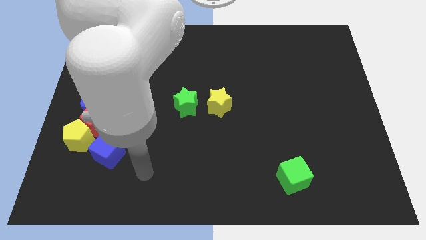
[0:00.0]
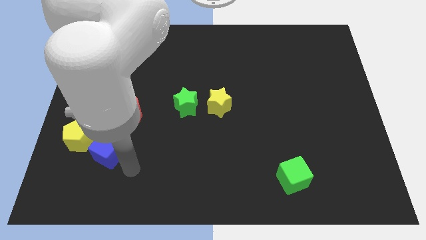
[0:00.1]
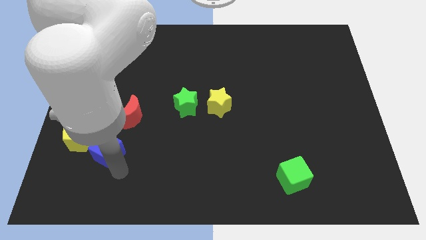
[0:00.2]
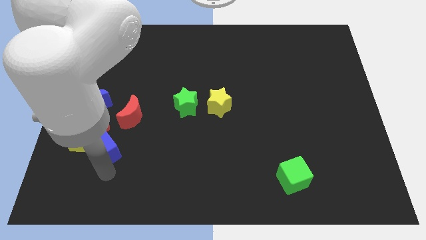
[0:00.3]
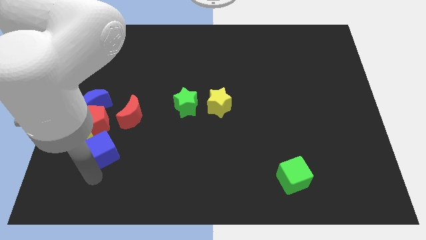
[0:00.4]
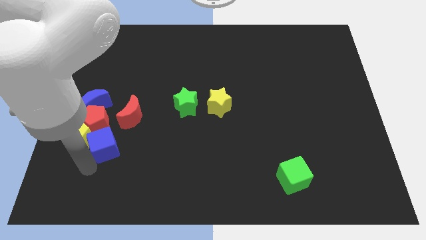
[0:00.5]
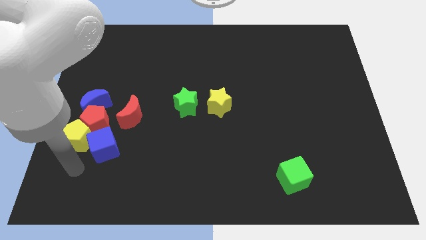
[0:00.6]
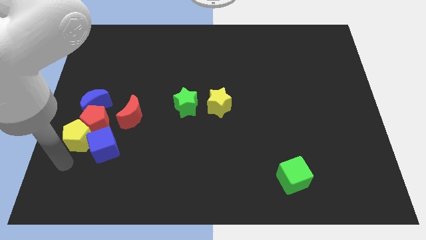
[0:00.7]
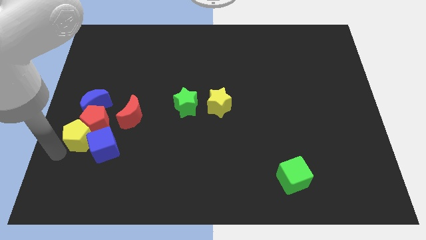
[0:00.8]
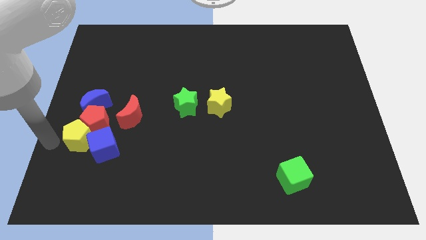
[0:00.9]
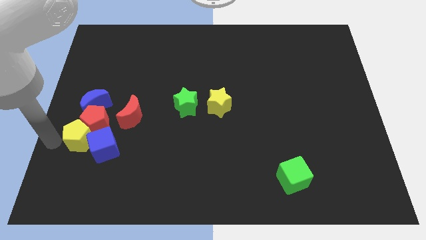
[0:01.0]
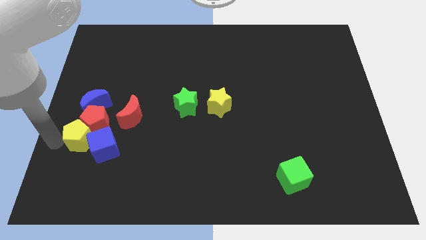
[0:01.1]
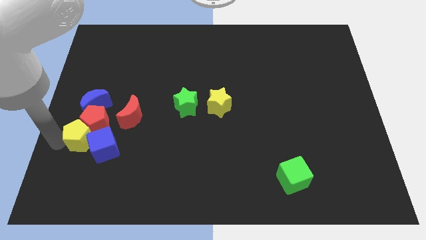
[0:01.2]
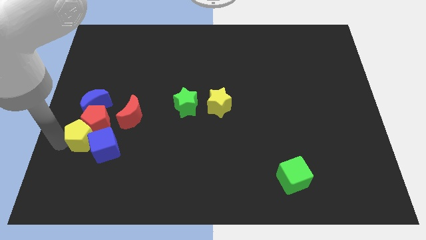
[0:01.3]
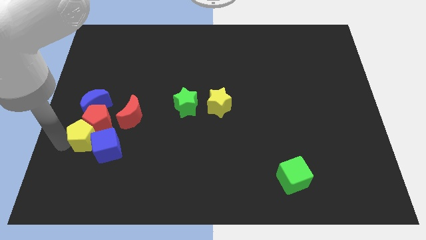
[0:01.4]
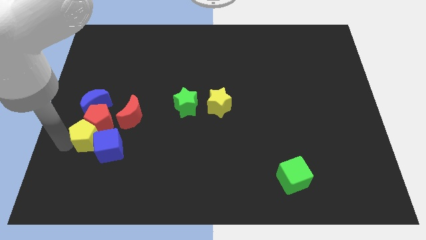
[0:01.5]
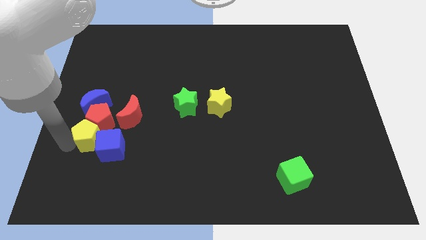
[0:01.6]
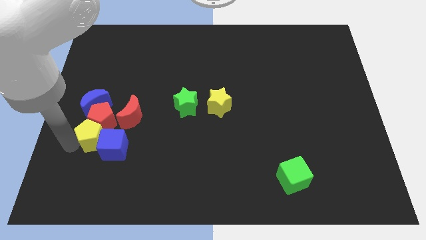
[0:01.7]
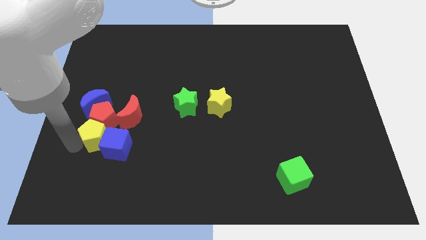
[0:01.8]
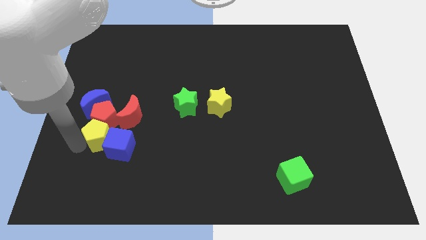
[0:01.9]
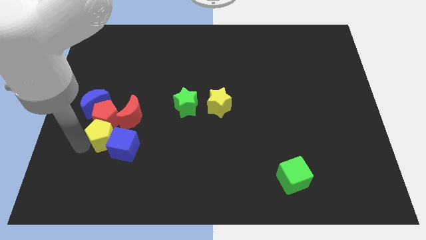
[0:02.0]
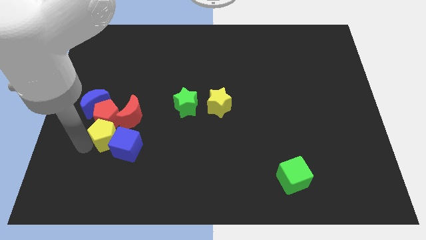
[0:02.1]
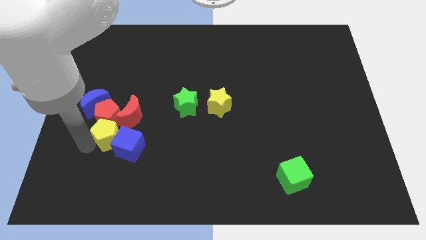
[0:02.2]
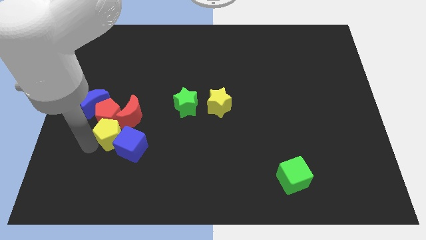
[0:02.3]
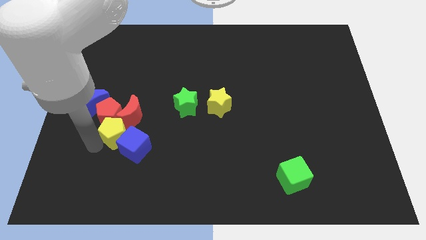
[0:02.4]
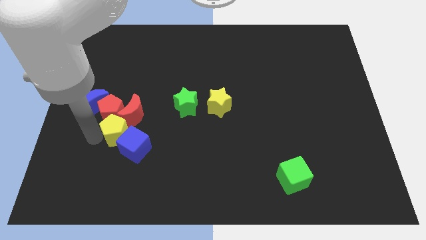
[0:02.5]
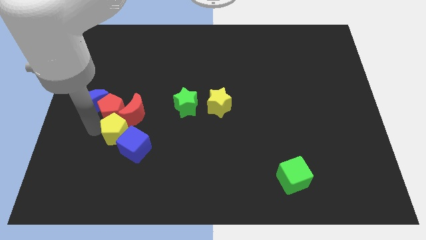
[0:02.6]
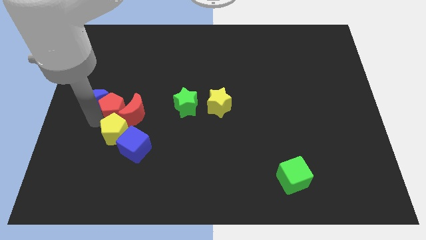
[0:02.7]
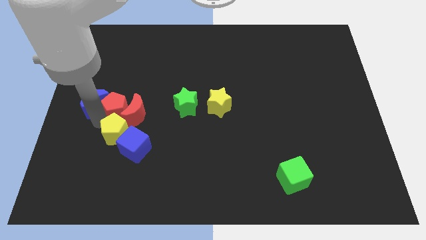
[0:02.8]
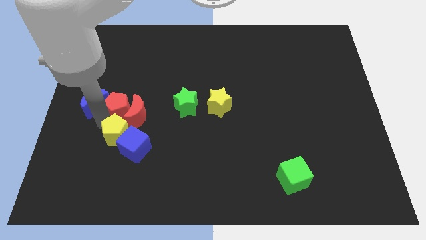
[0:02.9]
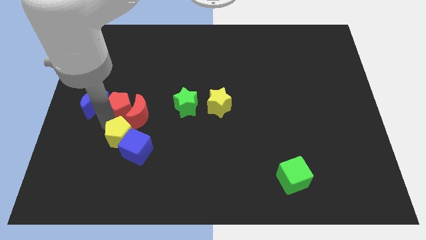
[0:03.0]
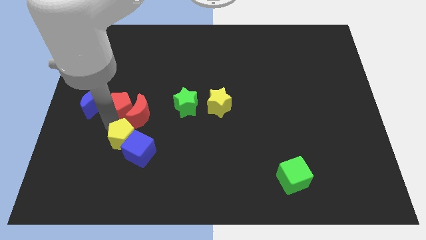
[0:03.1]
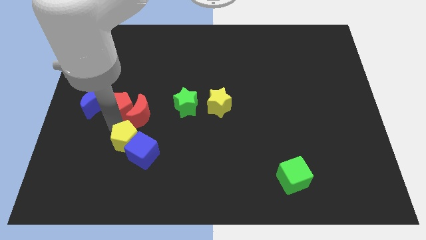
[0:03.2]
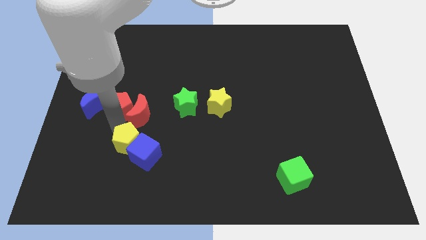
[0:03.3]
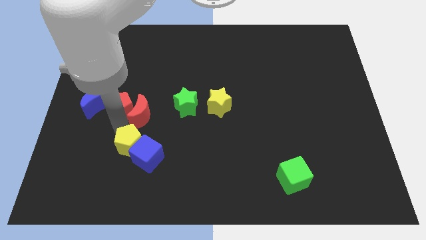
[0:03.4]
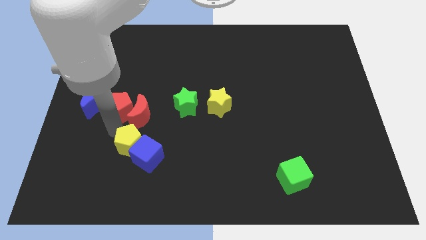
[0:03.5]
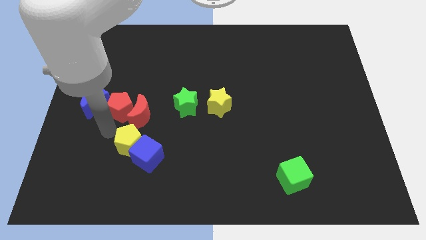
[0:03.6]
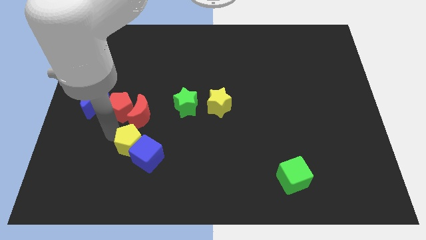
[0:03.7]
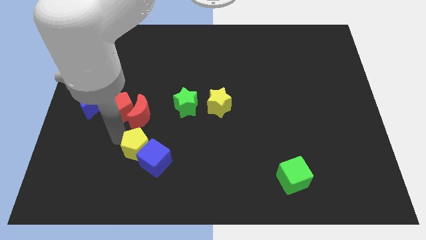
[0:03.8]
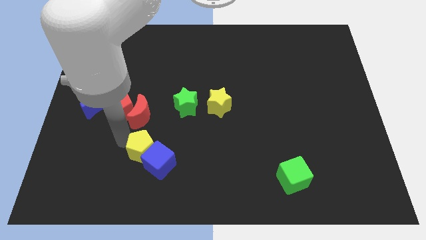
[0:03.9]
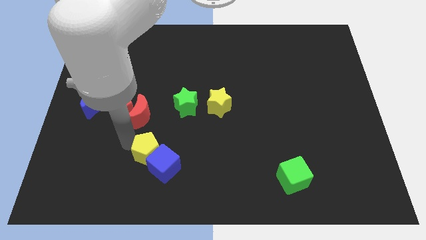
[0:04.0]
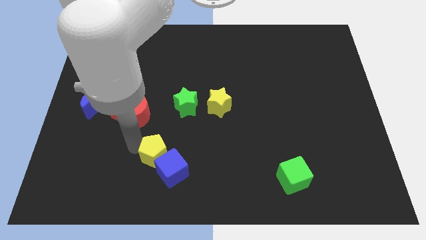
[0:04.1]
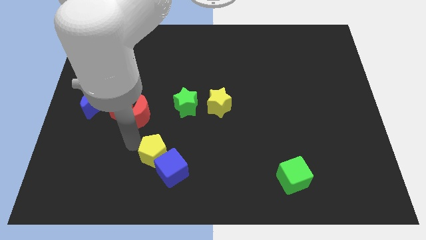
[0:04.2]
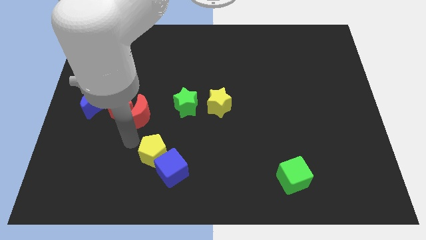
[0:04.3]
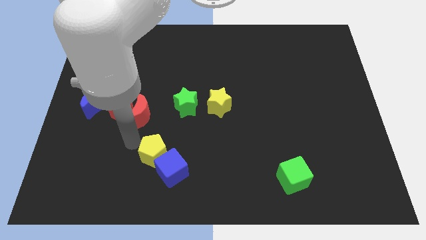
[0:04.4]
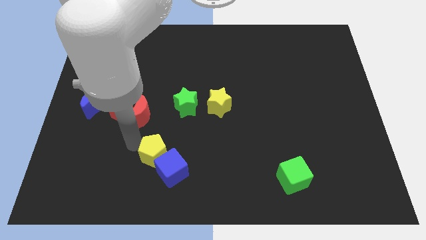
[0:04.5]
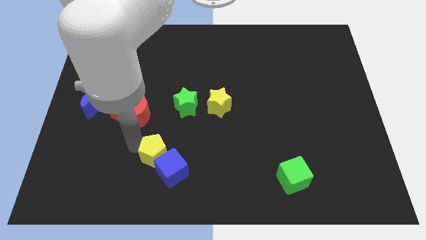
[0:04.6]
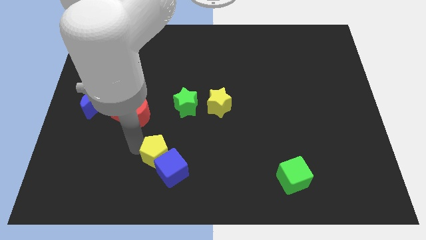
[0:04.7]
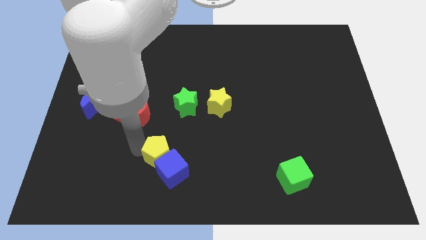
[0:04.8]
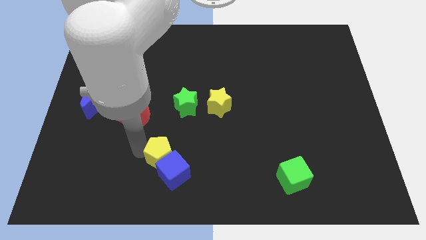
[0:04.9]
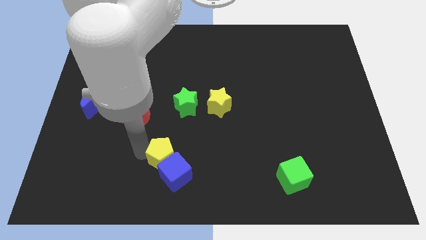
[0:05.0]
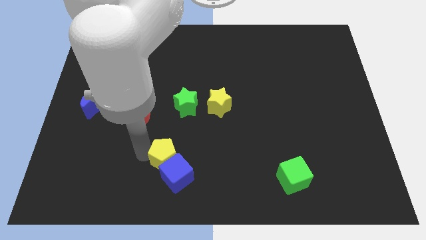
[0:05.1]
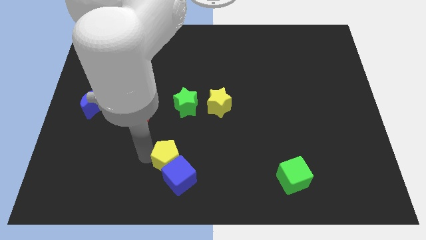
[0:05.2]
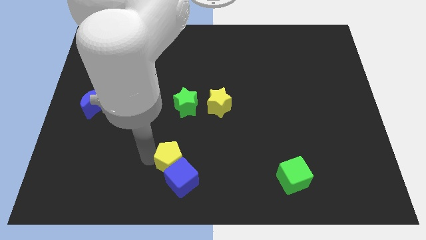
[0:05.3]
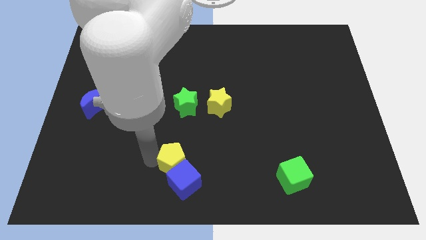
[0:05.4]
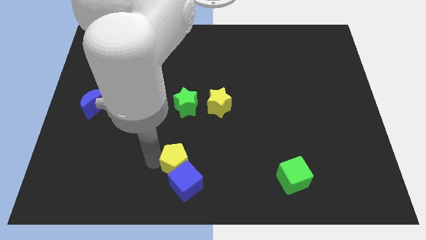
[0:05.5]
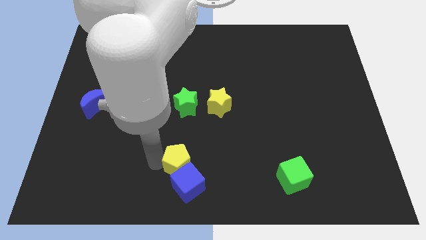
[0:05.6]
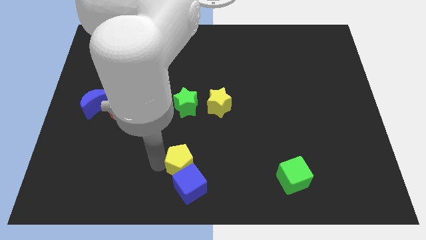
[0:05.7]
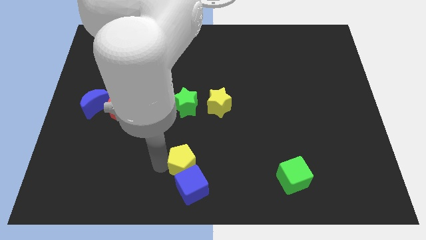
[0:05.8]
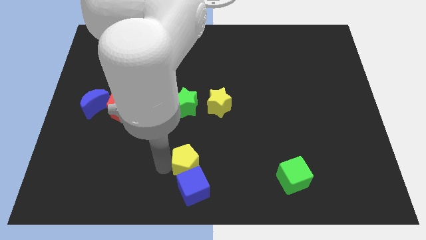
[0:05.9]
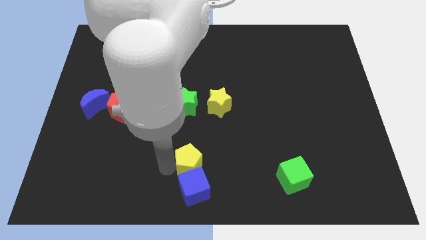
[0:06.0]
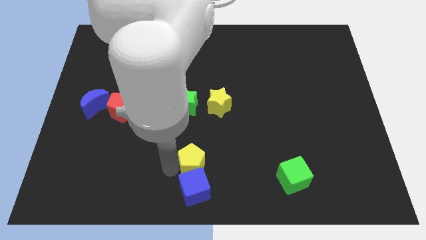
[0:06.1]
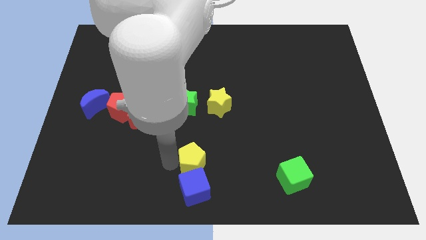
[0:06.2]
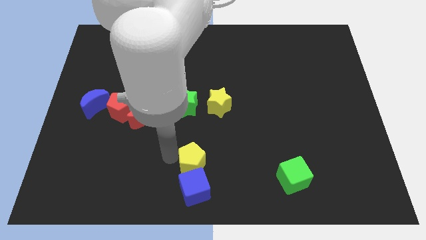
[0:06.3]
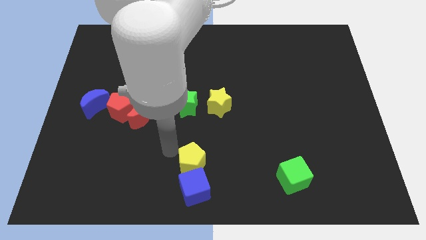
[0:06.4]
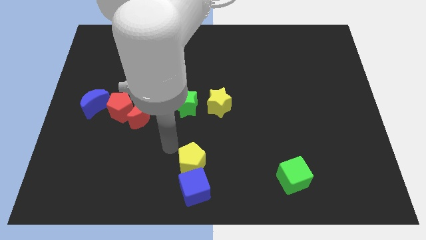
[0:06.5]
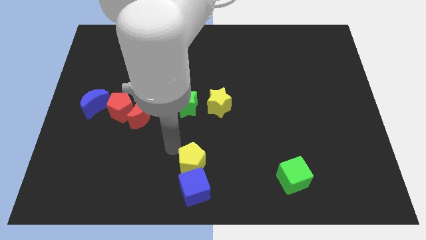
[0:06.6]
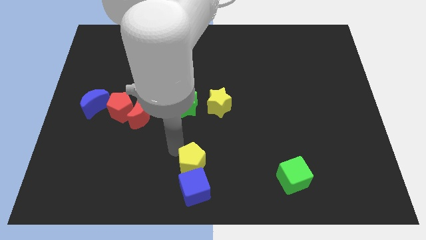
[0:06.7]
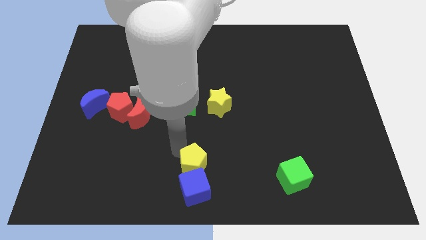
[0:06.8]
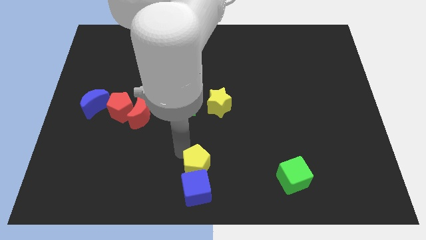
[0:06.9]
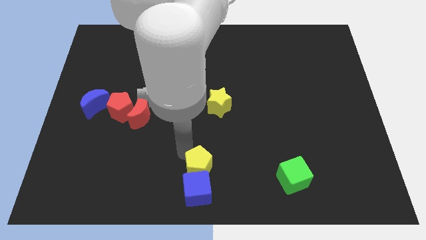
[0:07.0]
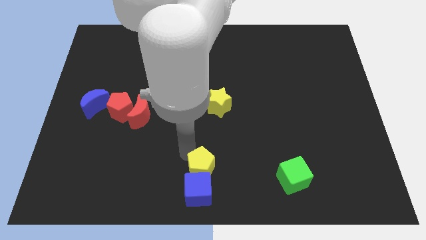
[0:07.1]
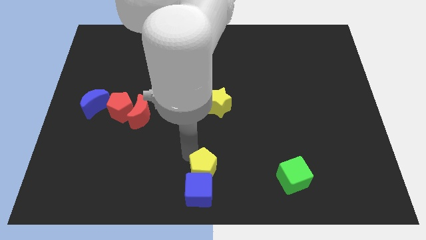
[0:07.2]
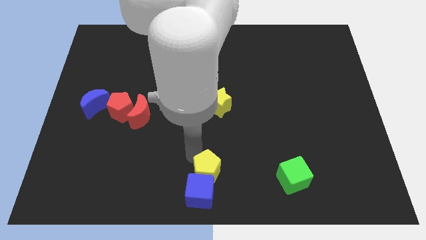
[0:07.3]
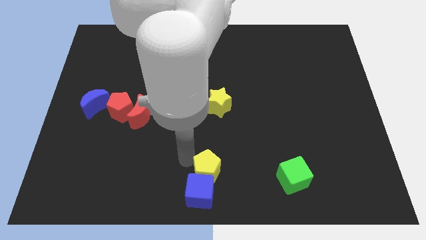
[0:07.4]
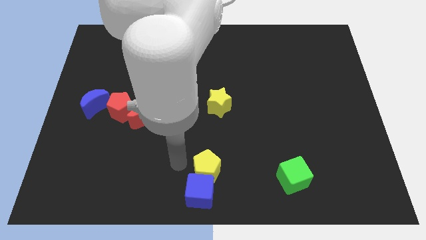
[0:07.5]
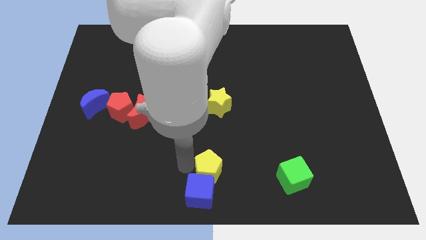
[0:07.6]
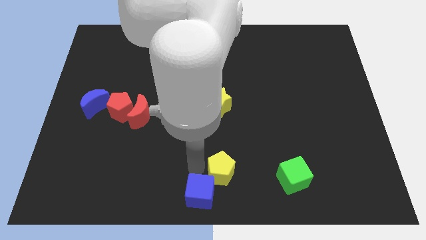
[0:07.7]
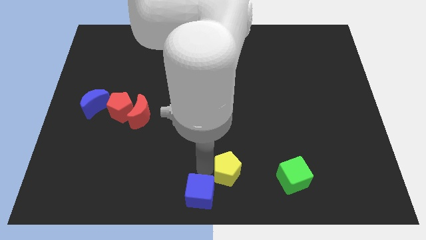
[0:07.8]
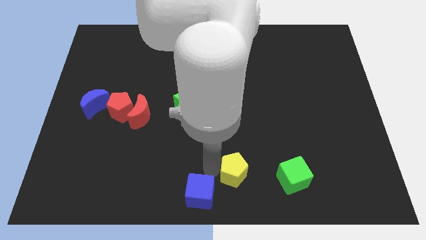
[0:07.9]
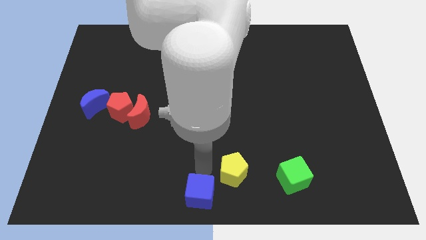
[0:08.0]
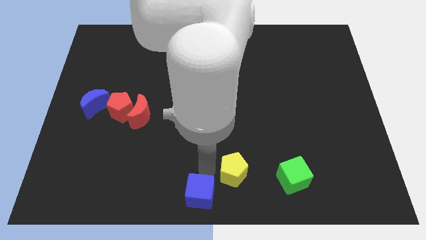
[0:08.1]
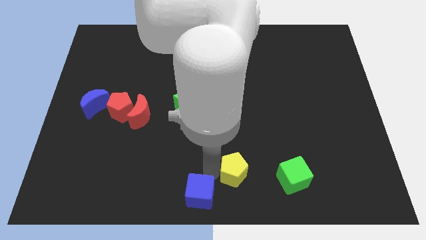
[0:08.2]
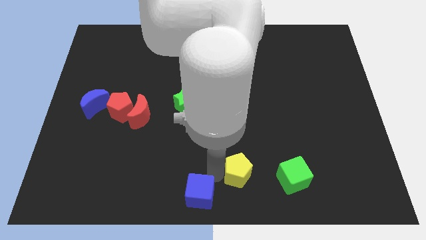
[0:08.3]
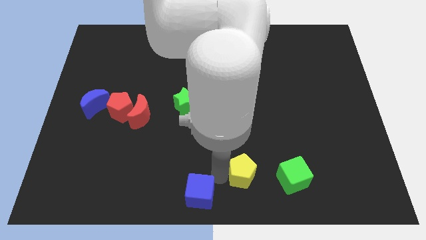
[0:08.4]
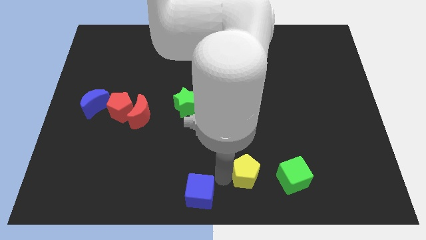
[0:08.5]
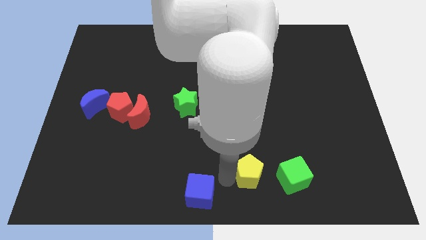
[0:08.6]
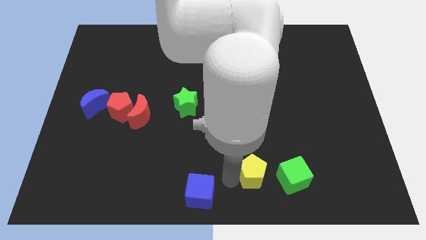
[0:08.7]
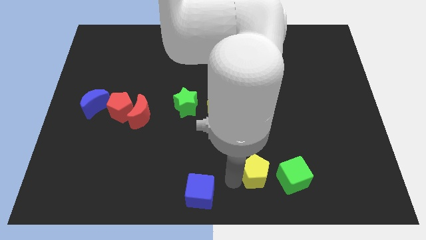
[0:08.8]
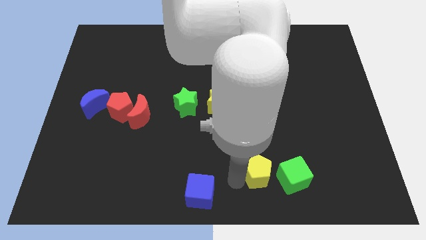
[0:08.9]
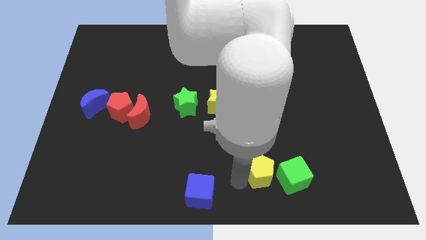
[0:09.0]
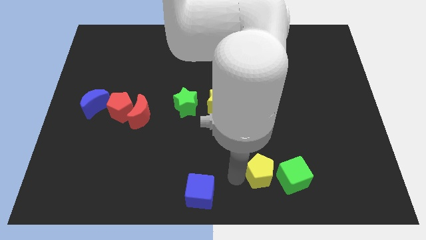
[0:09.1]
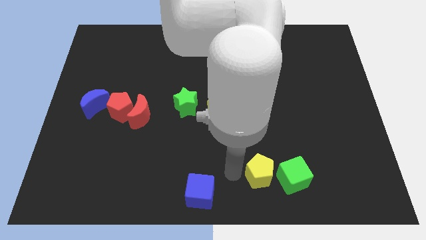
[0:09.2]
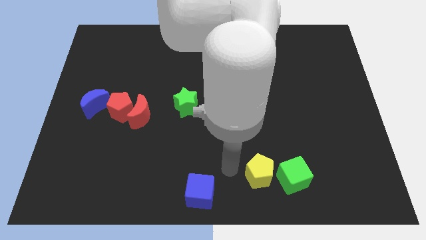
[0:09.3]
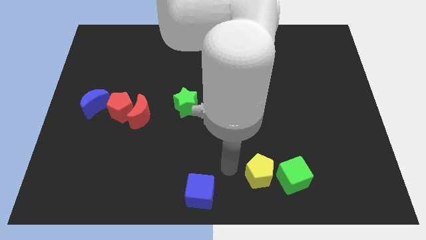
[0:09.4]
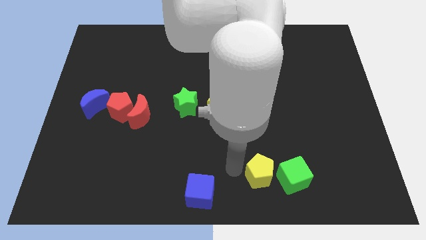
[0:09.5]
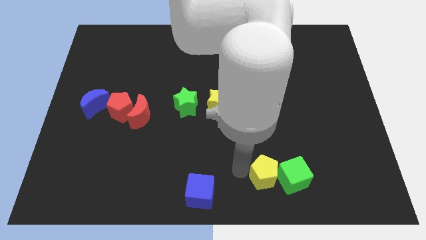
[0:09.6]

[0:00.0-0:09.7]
put the yellow pentagon to the green cube
